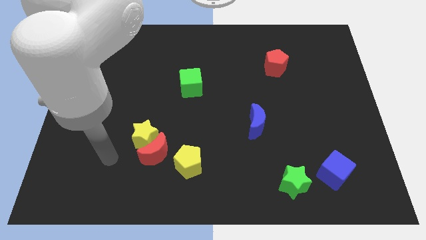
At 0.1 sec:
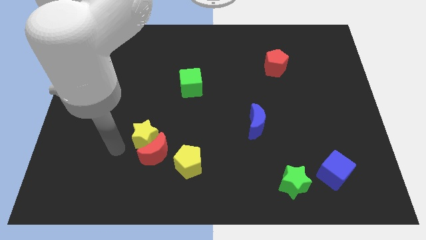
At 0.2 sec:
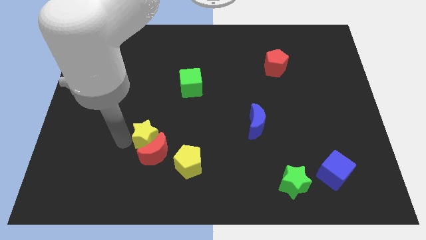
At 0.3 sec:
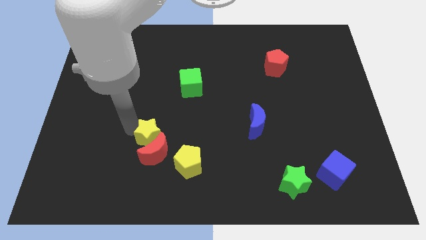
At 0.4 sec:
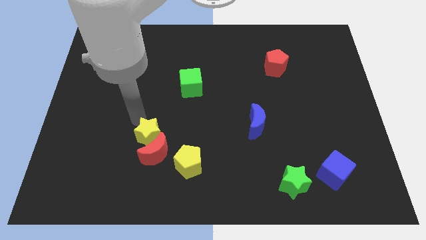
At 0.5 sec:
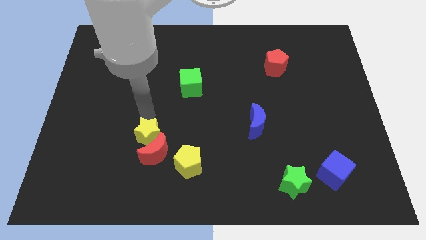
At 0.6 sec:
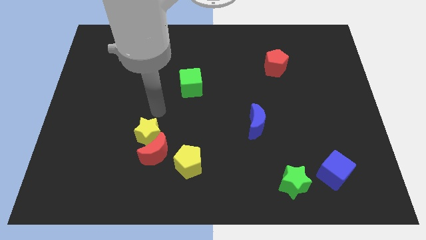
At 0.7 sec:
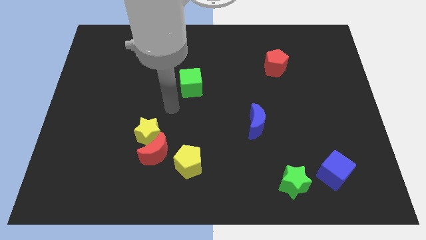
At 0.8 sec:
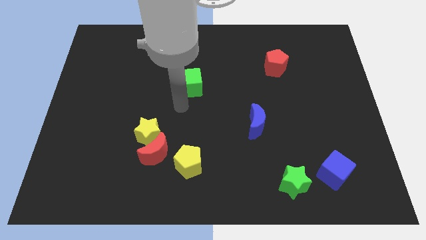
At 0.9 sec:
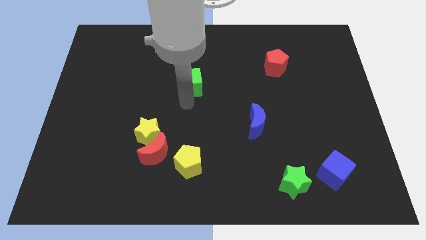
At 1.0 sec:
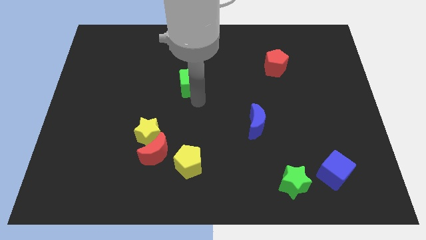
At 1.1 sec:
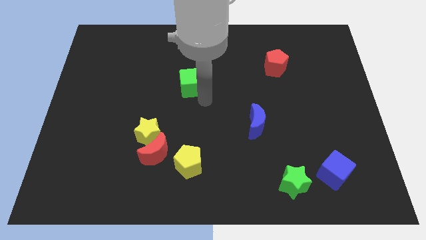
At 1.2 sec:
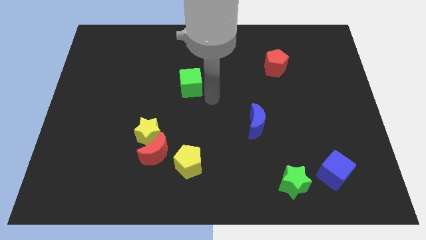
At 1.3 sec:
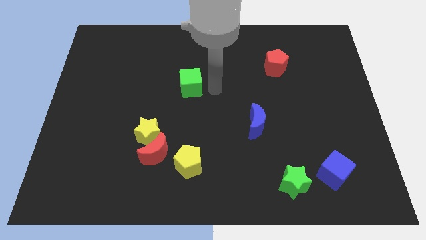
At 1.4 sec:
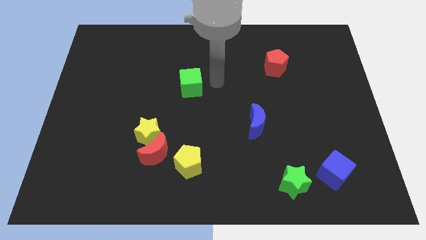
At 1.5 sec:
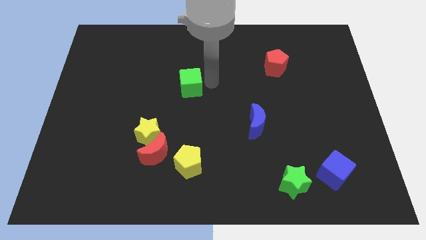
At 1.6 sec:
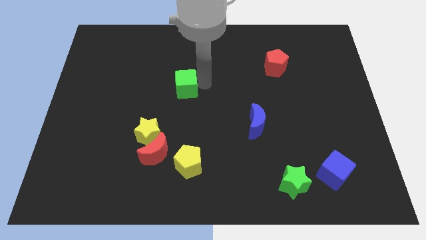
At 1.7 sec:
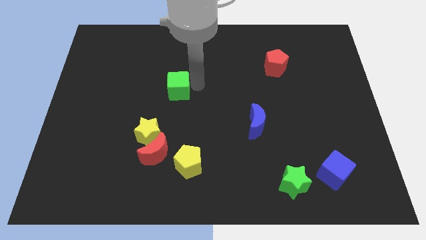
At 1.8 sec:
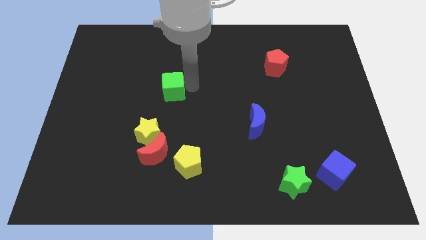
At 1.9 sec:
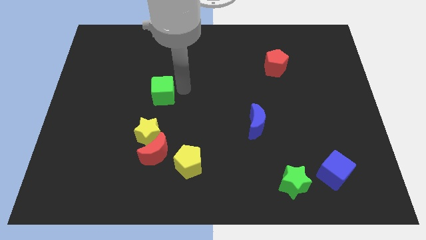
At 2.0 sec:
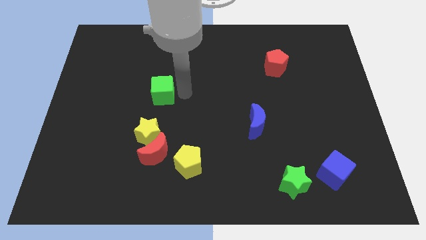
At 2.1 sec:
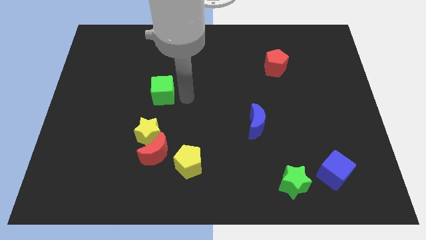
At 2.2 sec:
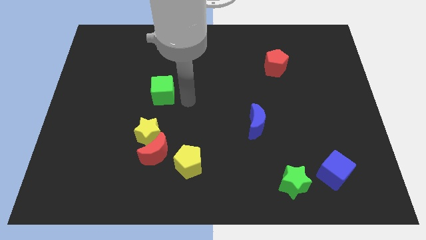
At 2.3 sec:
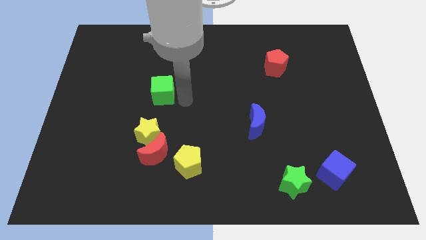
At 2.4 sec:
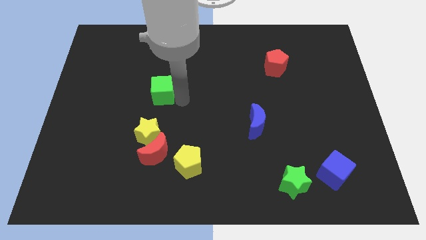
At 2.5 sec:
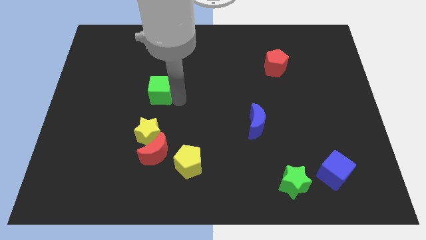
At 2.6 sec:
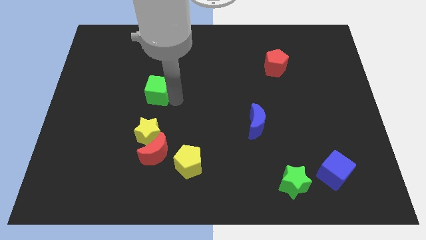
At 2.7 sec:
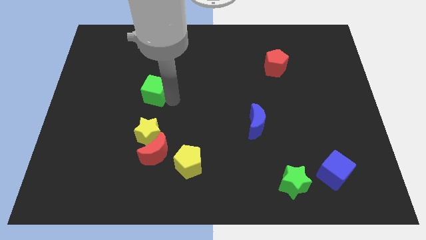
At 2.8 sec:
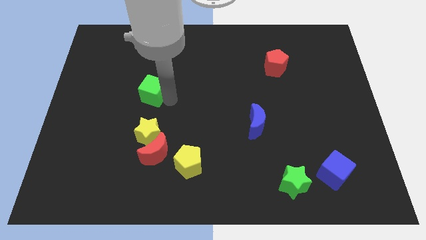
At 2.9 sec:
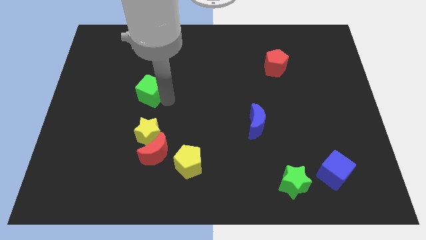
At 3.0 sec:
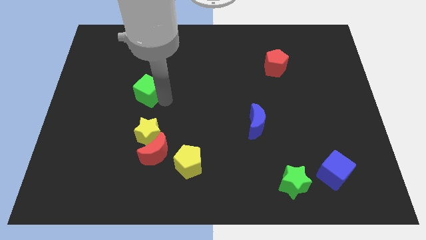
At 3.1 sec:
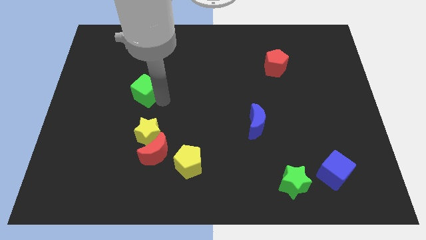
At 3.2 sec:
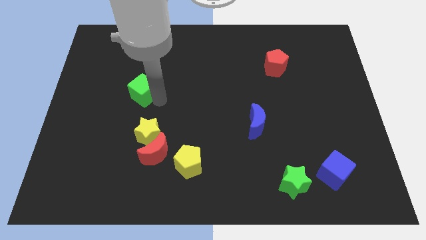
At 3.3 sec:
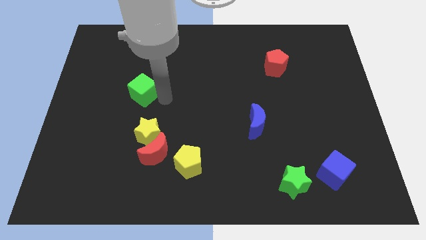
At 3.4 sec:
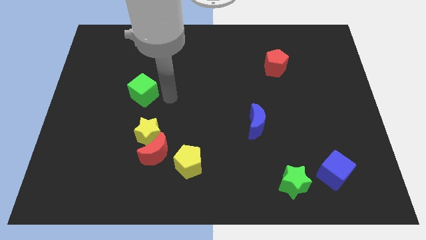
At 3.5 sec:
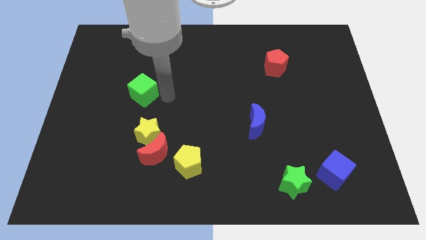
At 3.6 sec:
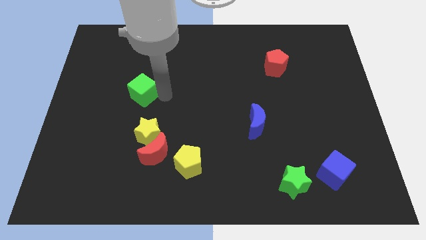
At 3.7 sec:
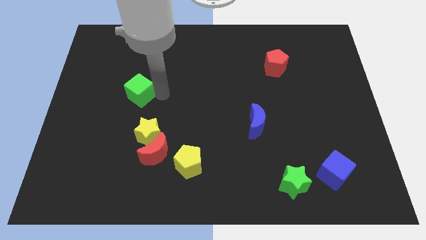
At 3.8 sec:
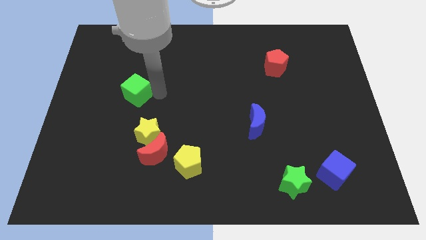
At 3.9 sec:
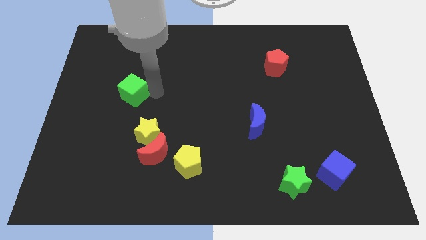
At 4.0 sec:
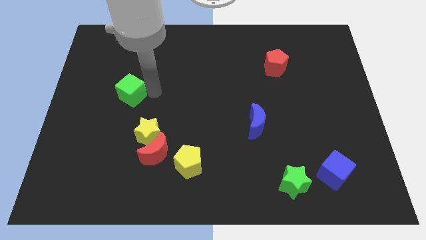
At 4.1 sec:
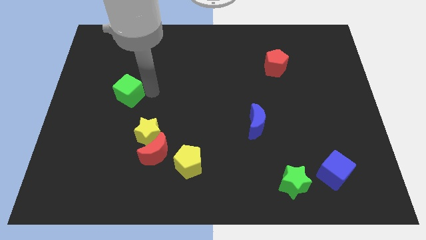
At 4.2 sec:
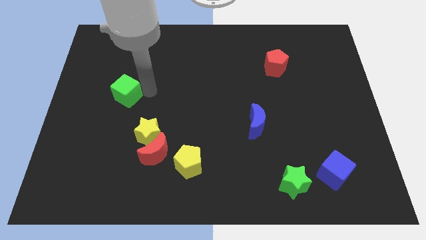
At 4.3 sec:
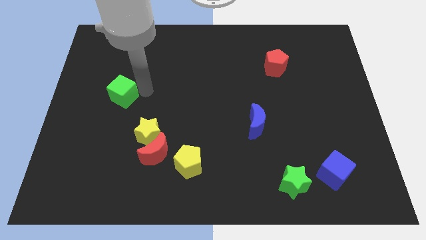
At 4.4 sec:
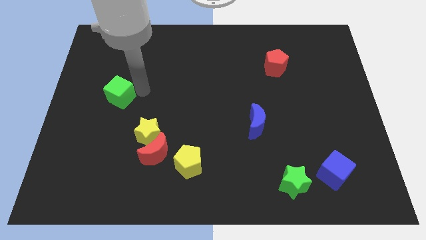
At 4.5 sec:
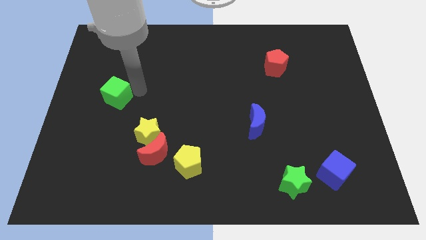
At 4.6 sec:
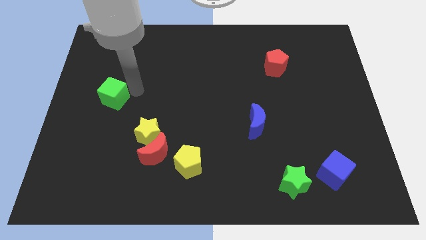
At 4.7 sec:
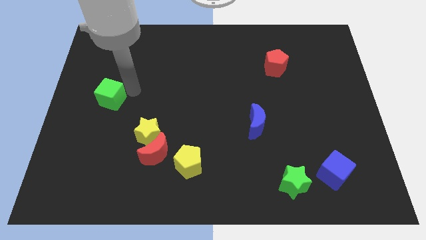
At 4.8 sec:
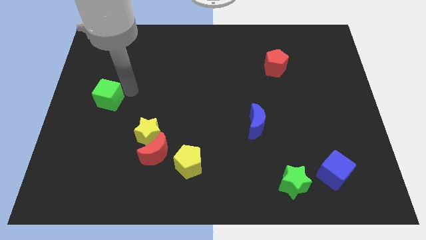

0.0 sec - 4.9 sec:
push the green cube to the left side

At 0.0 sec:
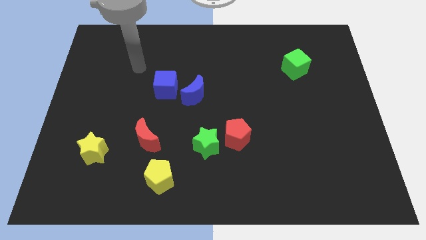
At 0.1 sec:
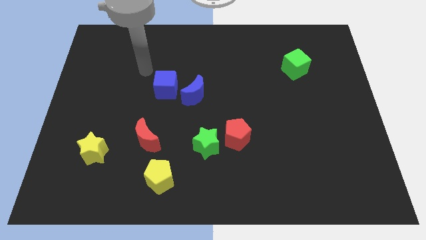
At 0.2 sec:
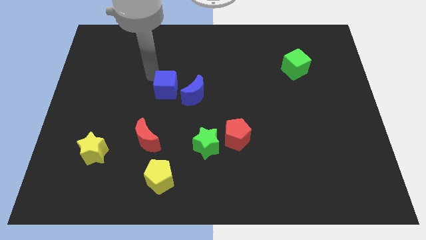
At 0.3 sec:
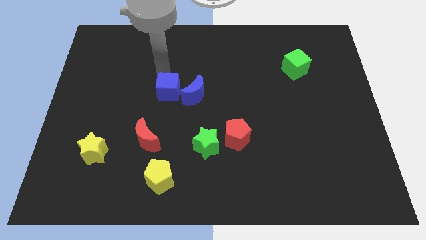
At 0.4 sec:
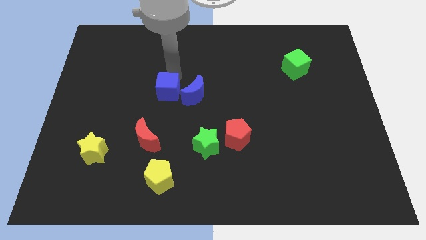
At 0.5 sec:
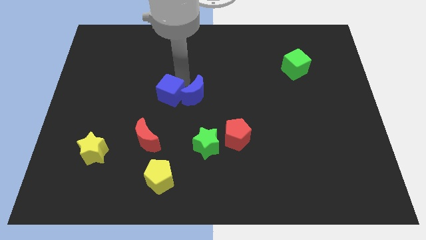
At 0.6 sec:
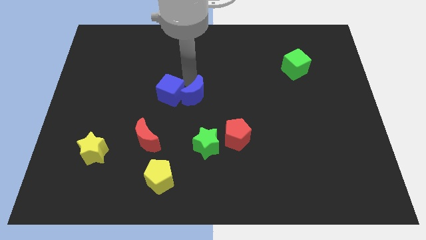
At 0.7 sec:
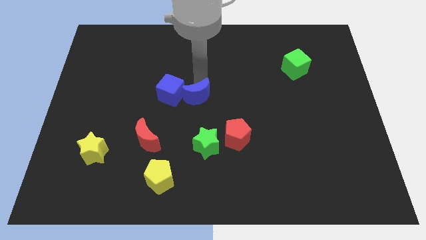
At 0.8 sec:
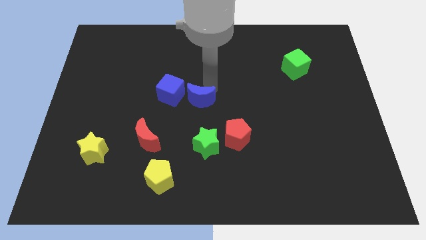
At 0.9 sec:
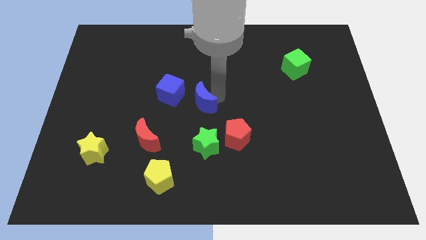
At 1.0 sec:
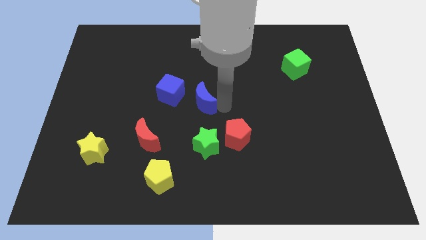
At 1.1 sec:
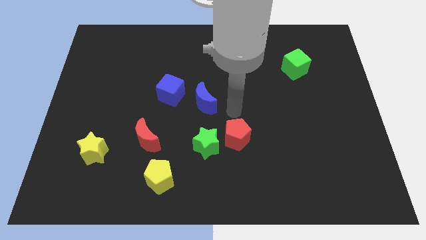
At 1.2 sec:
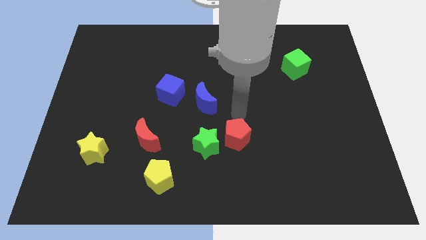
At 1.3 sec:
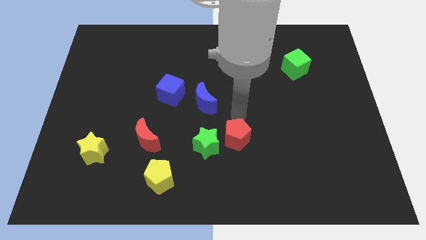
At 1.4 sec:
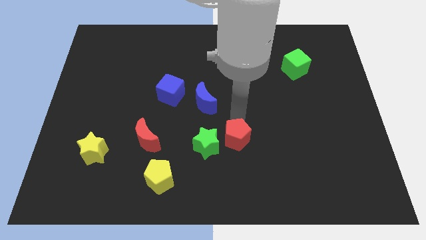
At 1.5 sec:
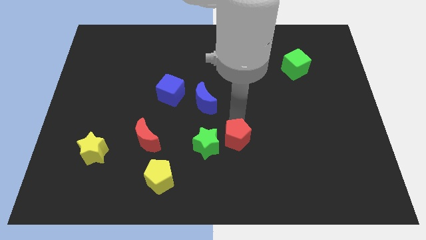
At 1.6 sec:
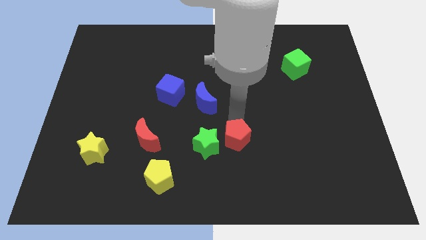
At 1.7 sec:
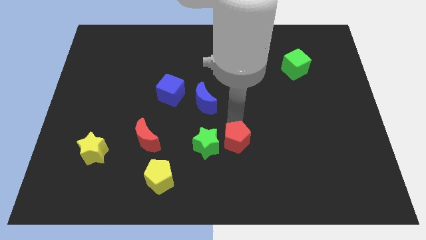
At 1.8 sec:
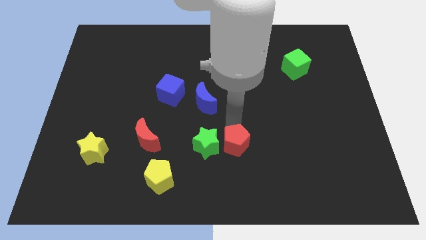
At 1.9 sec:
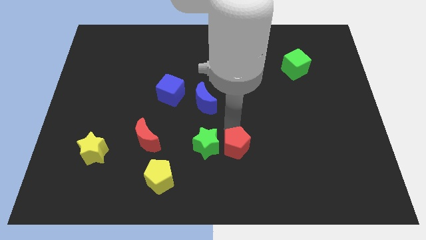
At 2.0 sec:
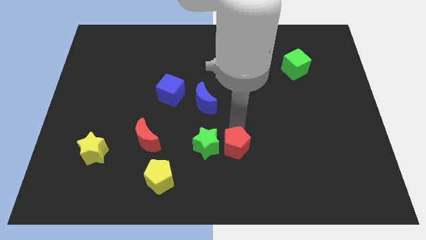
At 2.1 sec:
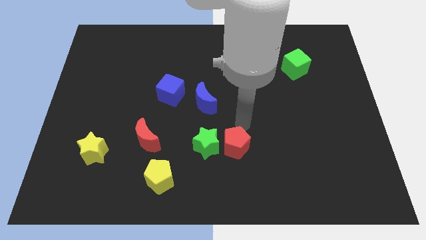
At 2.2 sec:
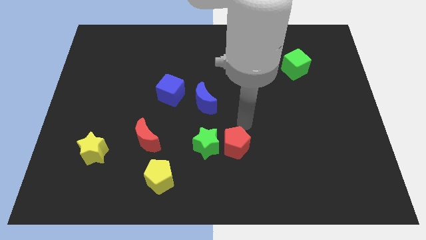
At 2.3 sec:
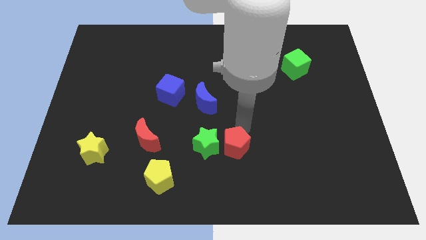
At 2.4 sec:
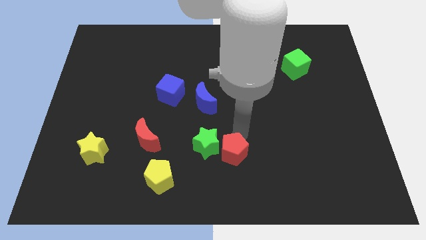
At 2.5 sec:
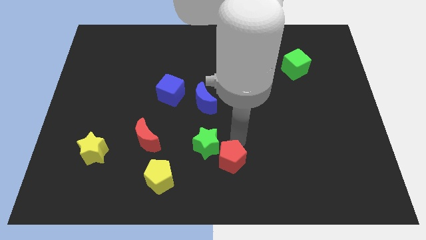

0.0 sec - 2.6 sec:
slide the red pentagon to the bottom side
